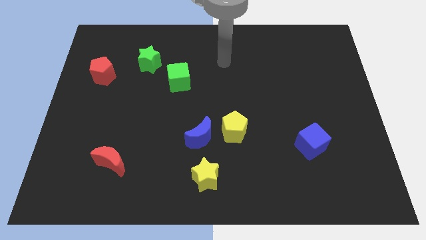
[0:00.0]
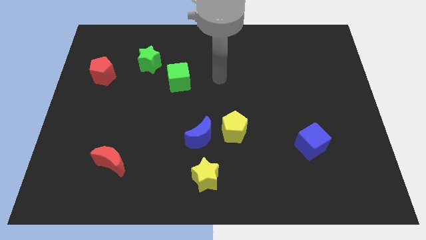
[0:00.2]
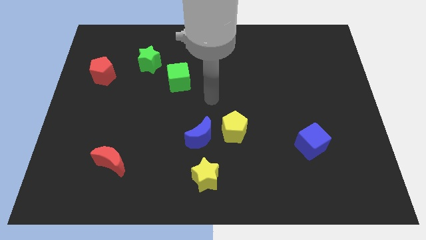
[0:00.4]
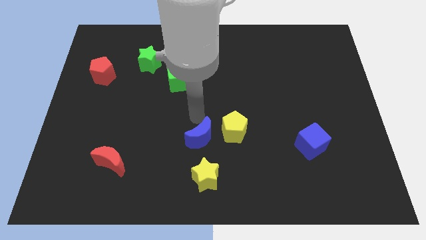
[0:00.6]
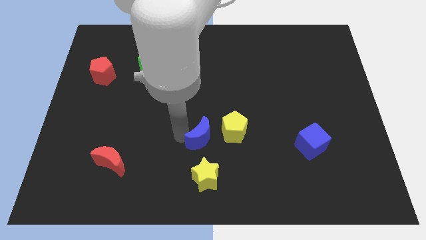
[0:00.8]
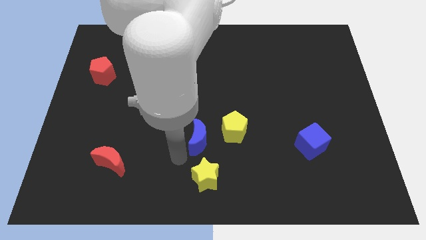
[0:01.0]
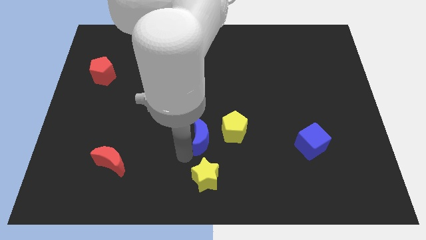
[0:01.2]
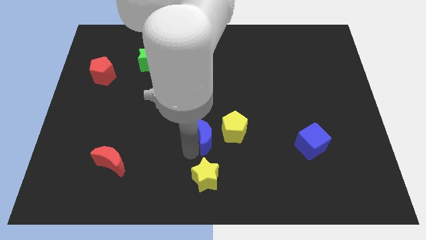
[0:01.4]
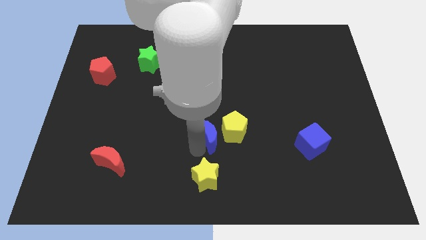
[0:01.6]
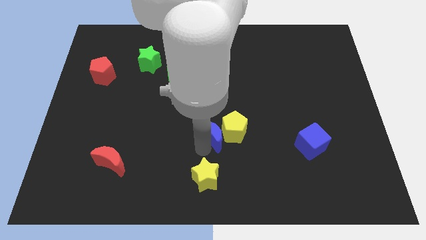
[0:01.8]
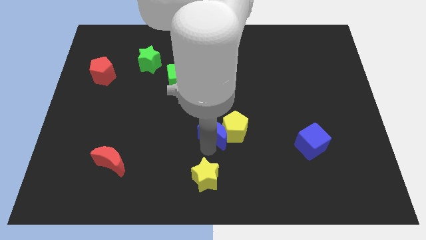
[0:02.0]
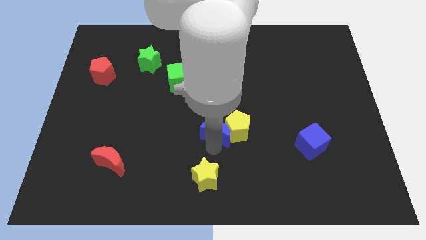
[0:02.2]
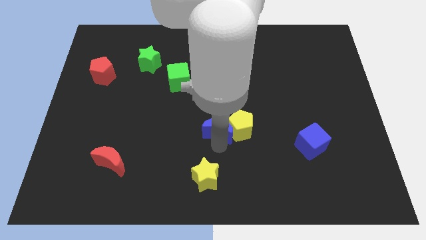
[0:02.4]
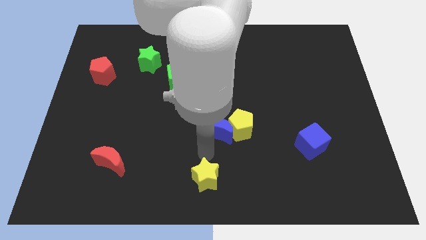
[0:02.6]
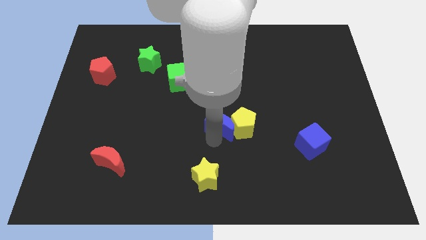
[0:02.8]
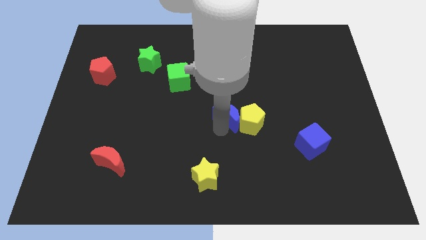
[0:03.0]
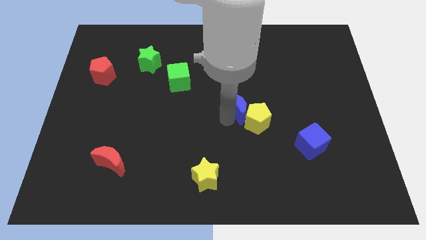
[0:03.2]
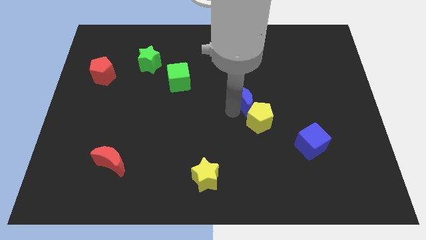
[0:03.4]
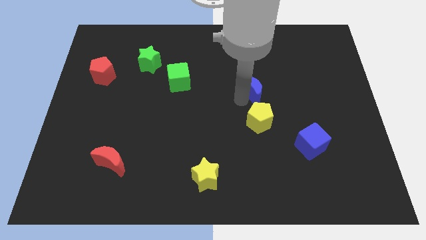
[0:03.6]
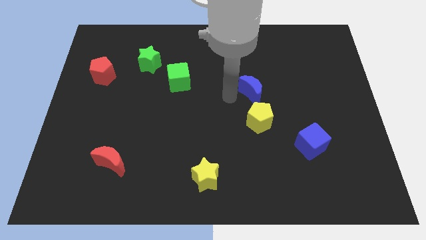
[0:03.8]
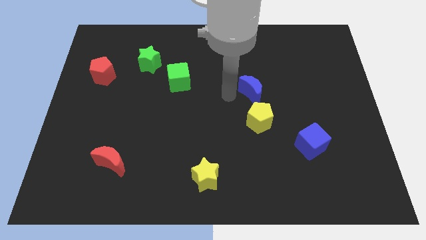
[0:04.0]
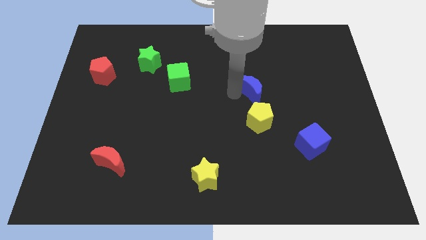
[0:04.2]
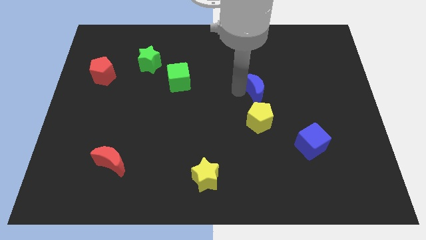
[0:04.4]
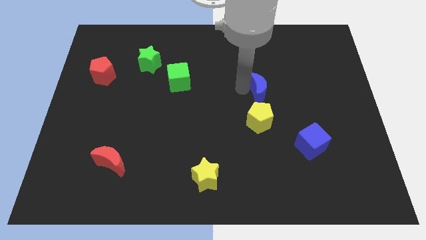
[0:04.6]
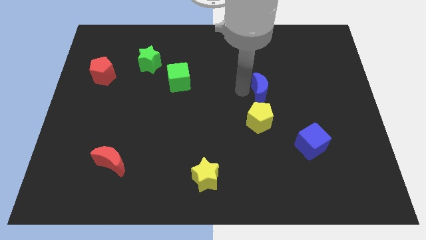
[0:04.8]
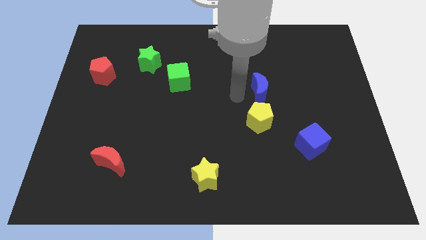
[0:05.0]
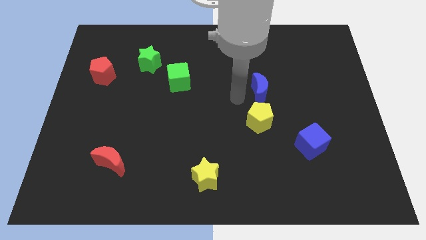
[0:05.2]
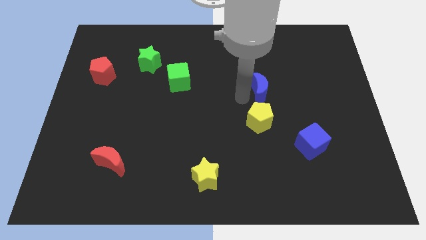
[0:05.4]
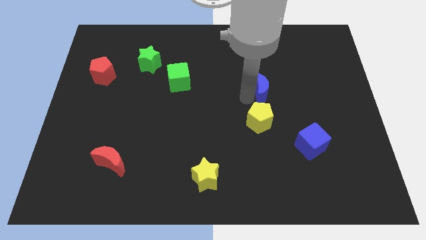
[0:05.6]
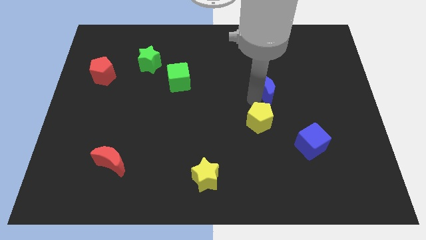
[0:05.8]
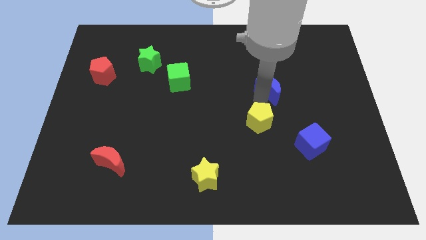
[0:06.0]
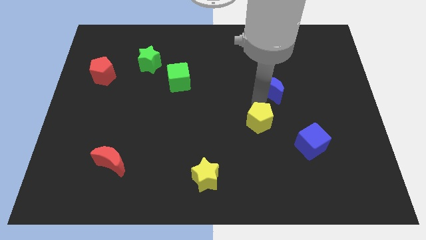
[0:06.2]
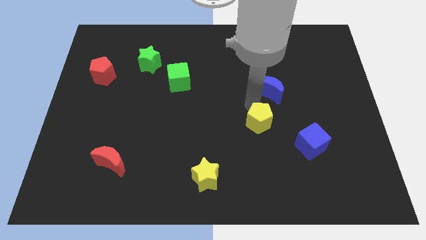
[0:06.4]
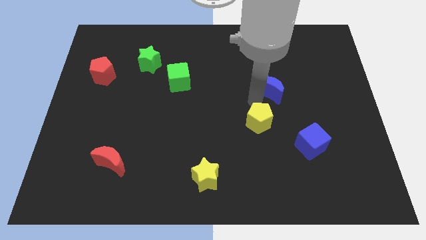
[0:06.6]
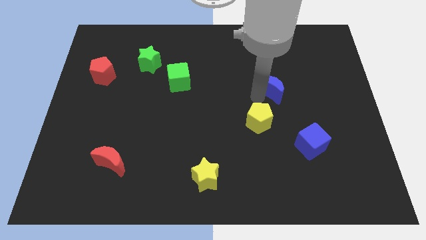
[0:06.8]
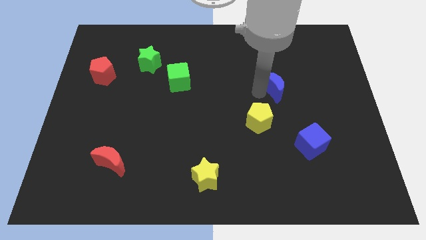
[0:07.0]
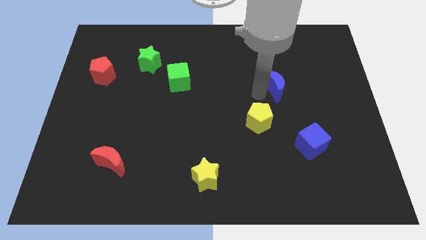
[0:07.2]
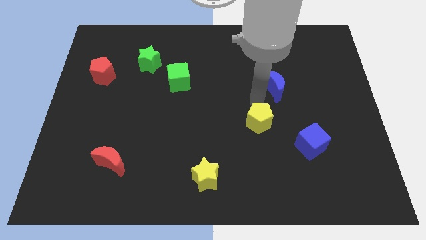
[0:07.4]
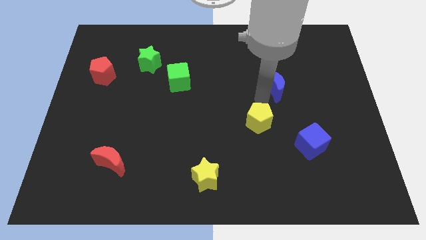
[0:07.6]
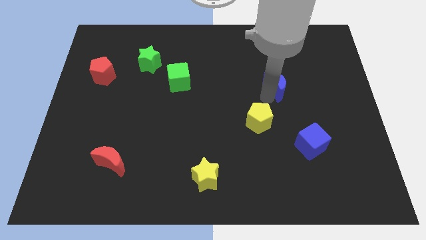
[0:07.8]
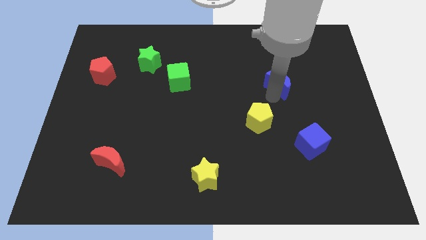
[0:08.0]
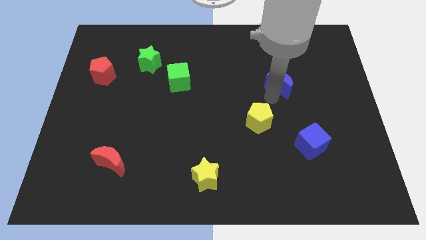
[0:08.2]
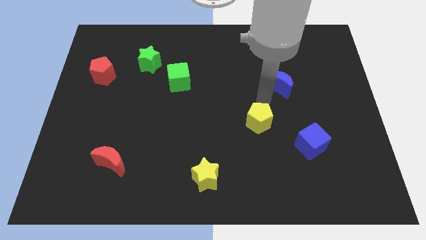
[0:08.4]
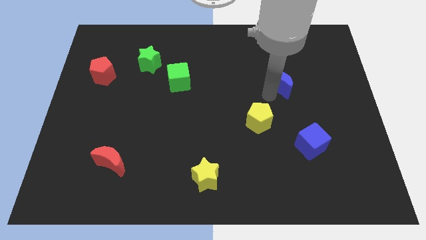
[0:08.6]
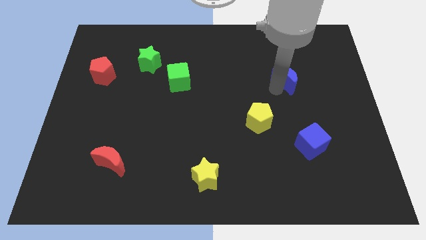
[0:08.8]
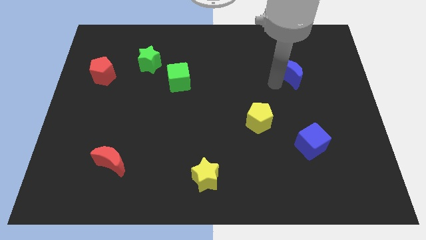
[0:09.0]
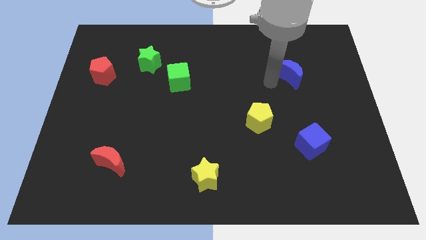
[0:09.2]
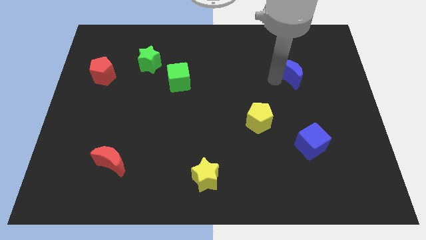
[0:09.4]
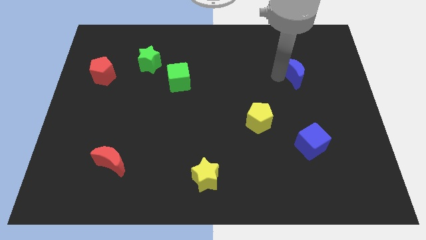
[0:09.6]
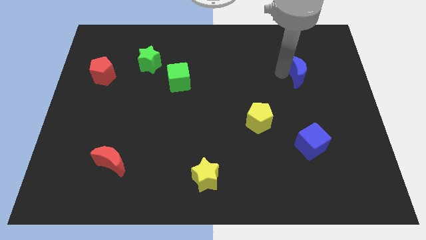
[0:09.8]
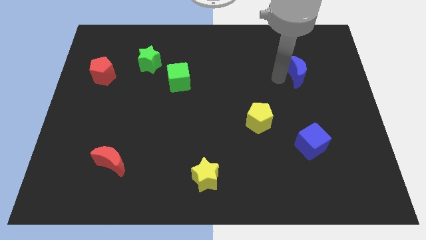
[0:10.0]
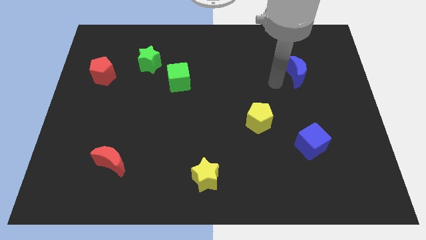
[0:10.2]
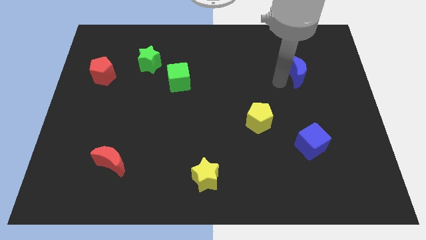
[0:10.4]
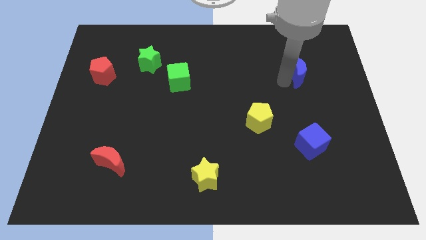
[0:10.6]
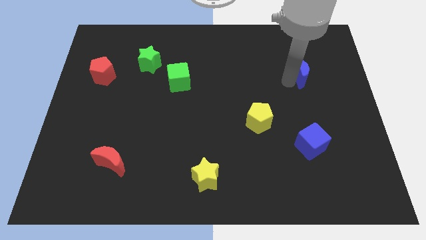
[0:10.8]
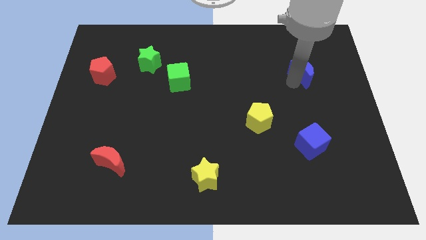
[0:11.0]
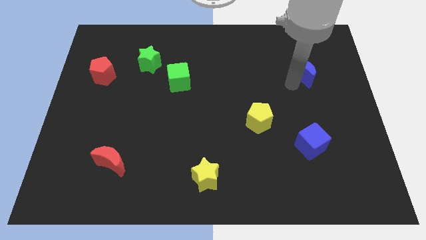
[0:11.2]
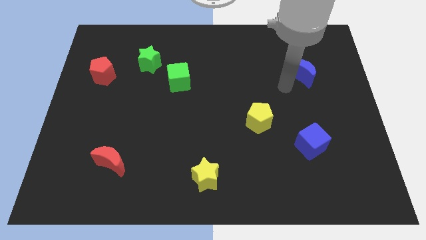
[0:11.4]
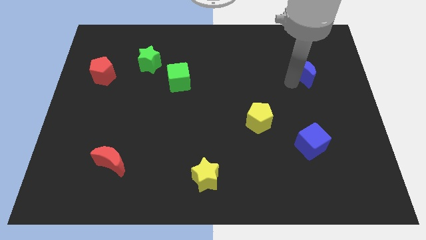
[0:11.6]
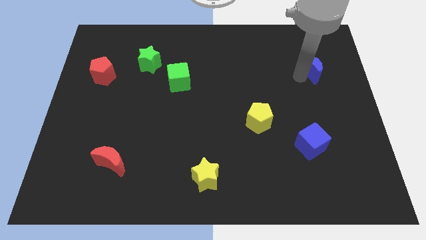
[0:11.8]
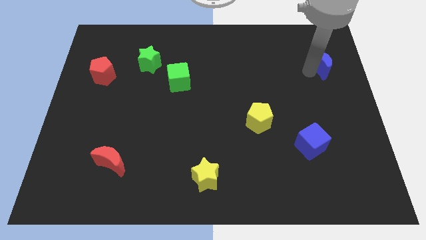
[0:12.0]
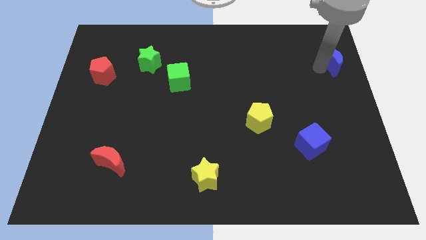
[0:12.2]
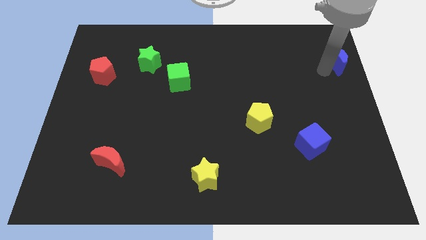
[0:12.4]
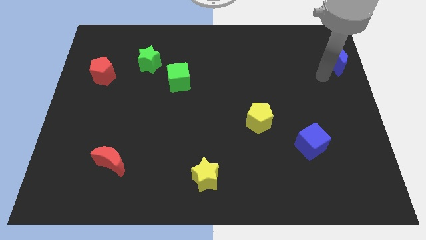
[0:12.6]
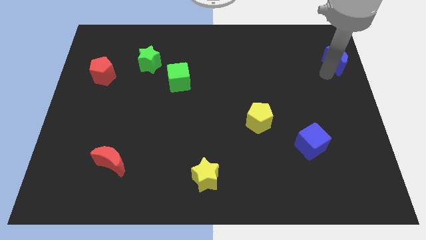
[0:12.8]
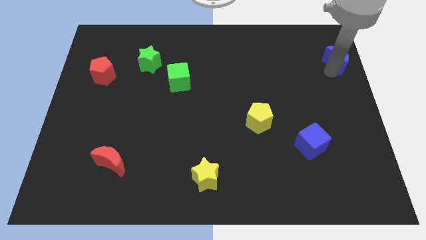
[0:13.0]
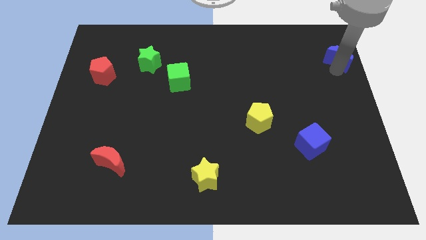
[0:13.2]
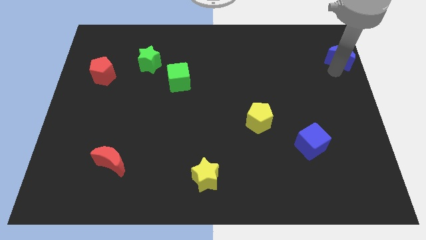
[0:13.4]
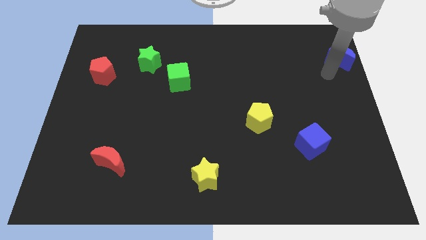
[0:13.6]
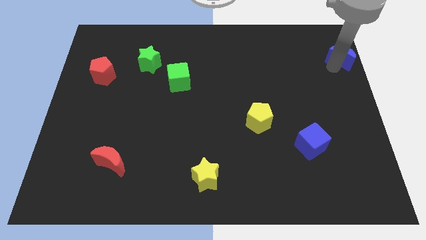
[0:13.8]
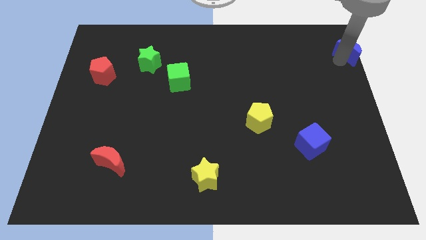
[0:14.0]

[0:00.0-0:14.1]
slide the blue moon to the top right of the board

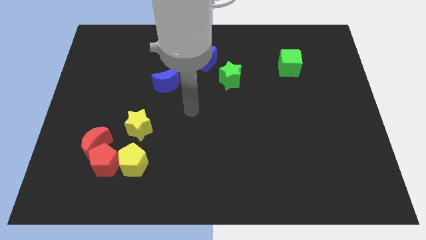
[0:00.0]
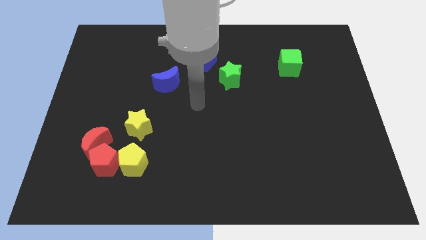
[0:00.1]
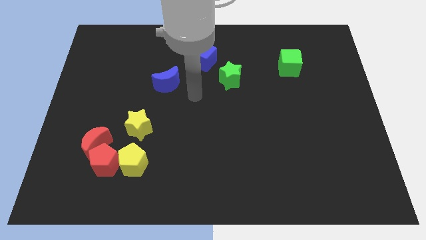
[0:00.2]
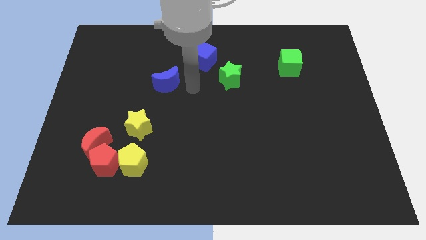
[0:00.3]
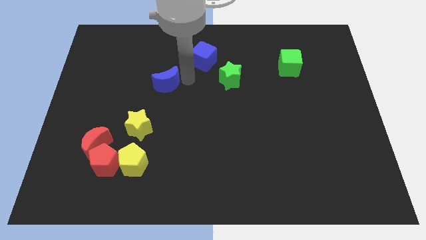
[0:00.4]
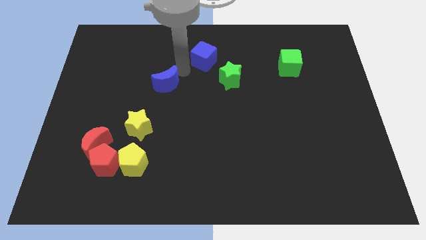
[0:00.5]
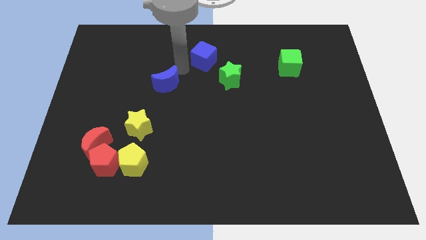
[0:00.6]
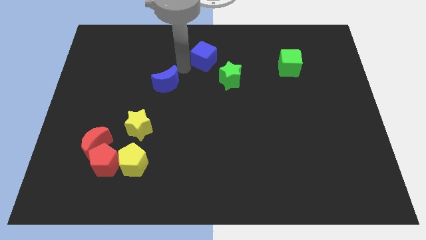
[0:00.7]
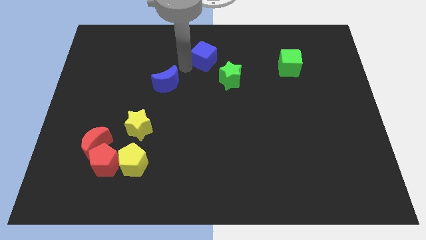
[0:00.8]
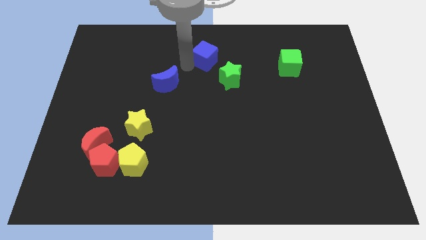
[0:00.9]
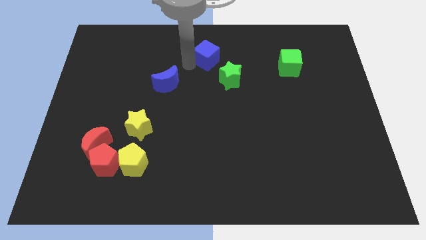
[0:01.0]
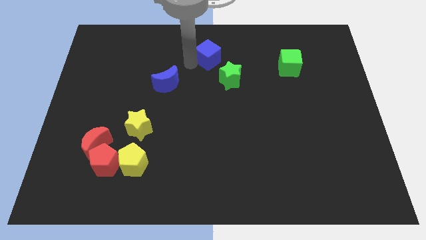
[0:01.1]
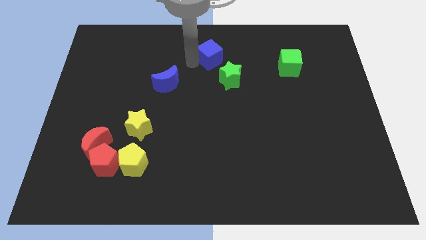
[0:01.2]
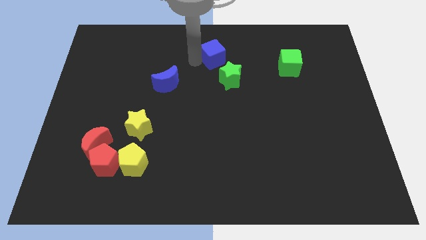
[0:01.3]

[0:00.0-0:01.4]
move the blue cube to the towards your base
